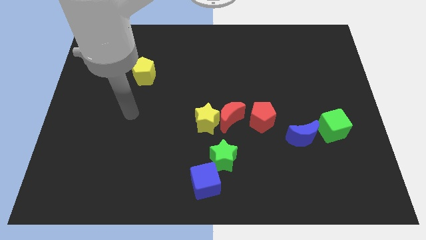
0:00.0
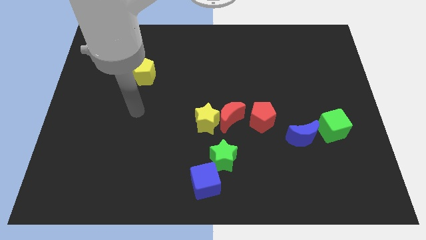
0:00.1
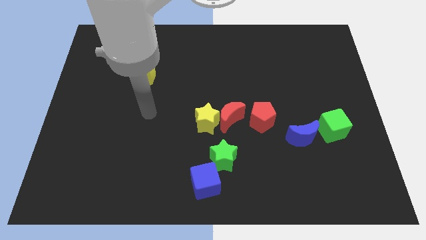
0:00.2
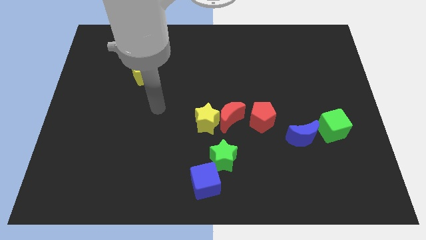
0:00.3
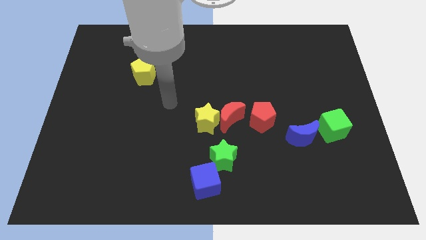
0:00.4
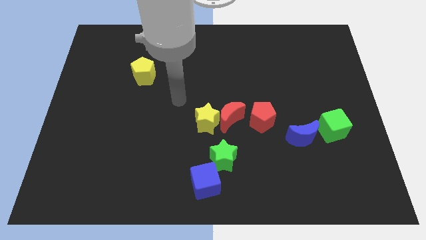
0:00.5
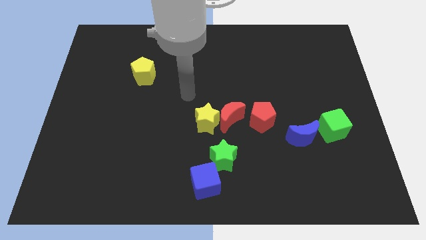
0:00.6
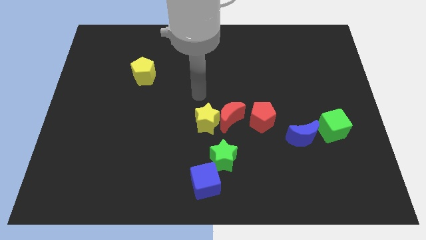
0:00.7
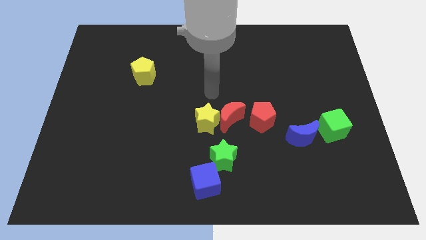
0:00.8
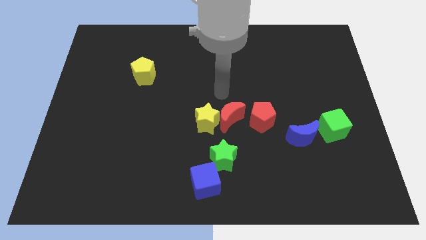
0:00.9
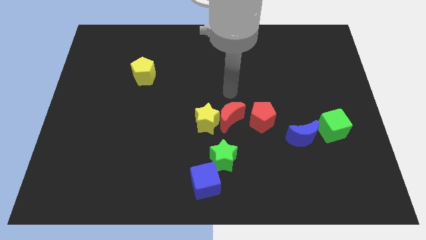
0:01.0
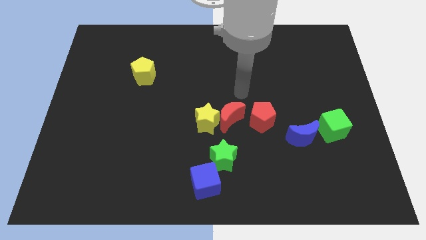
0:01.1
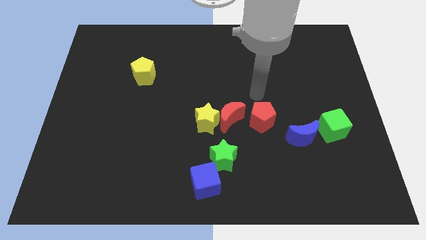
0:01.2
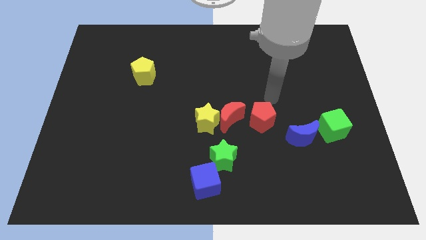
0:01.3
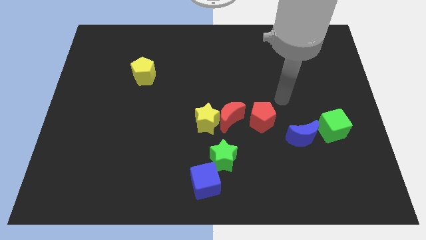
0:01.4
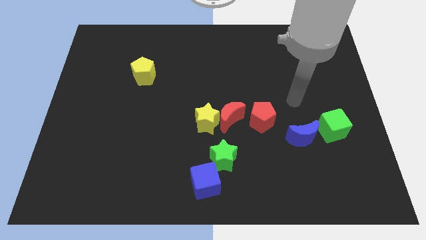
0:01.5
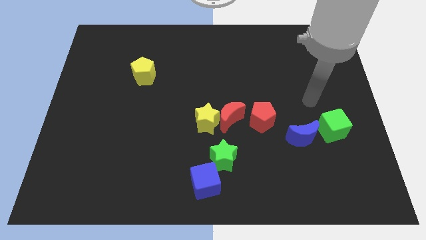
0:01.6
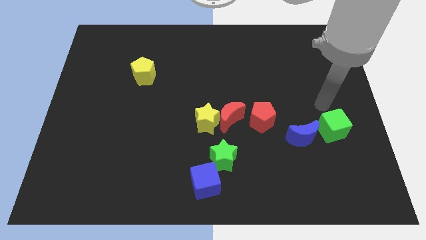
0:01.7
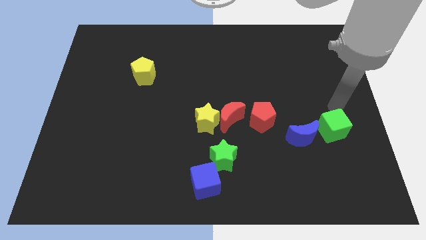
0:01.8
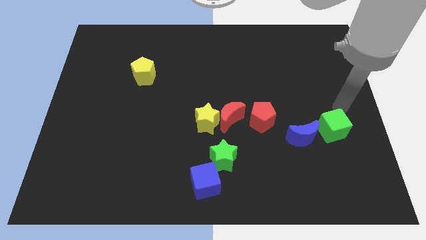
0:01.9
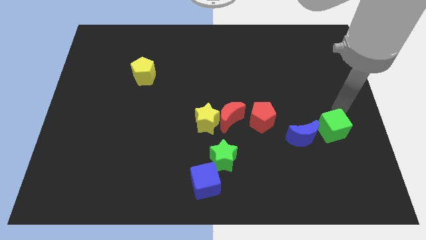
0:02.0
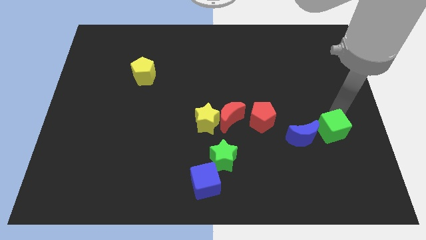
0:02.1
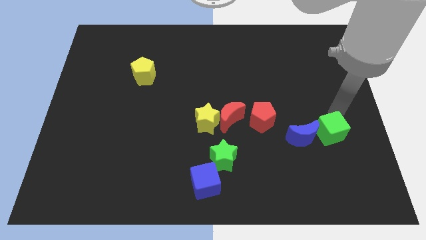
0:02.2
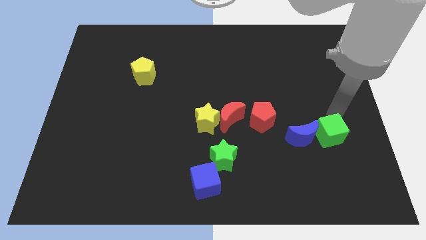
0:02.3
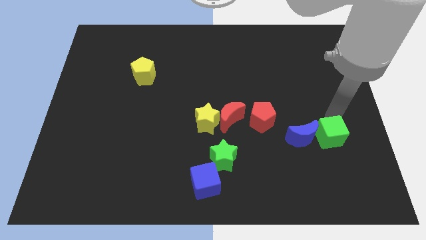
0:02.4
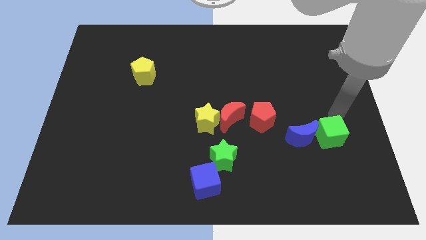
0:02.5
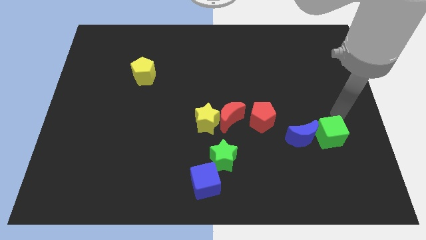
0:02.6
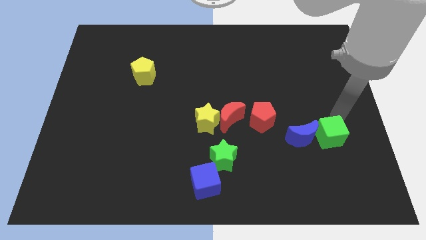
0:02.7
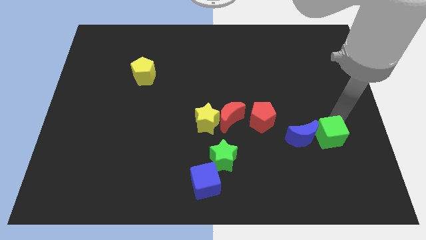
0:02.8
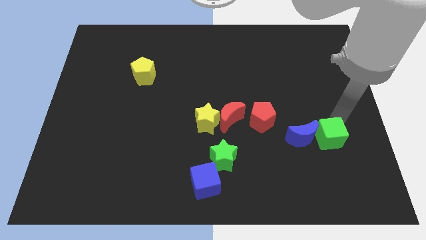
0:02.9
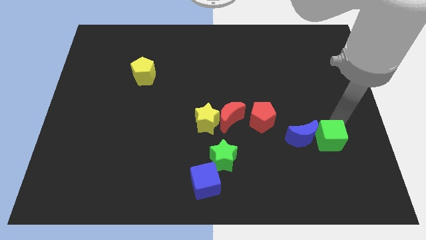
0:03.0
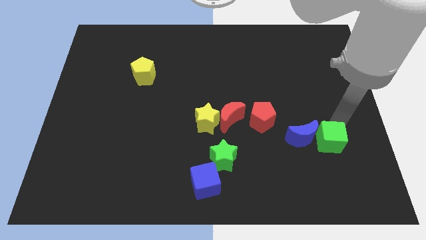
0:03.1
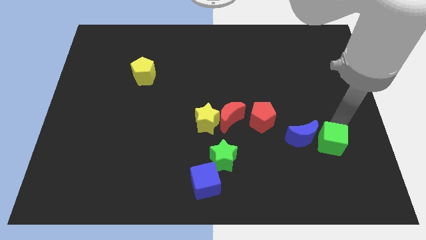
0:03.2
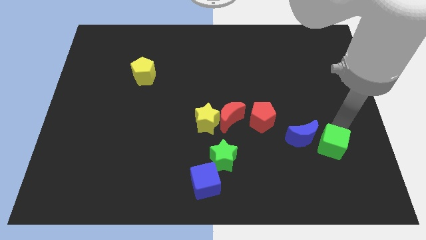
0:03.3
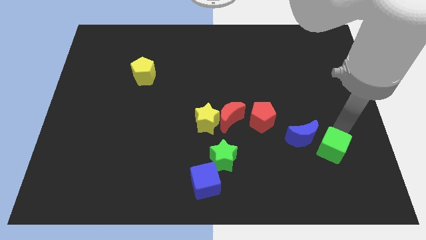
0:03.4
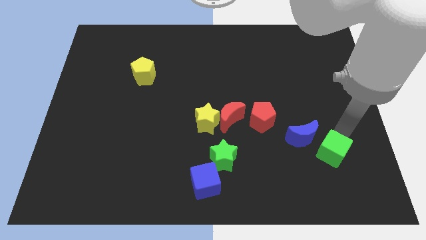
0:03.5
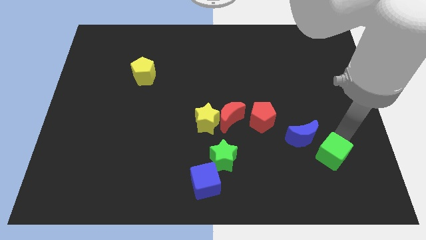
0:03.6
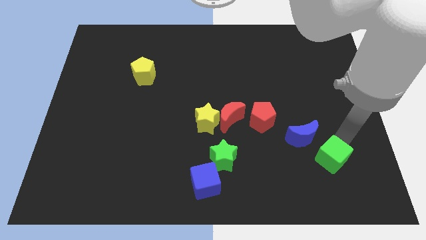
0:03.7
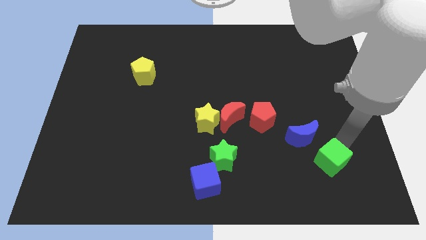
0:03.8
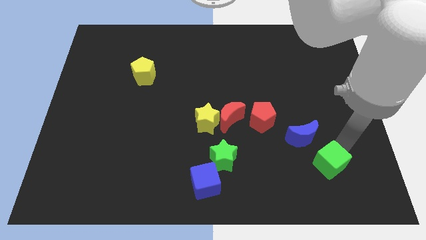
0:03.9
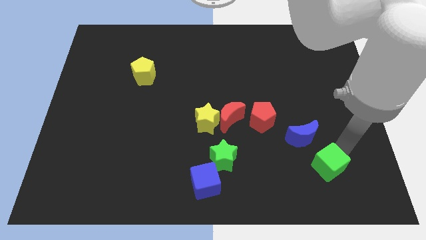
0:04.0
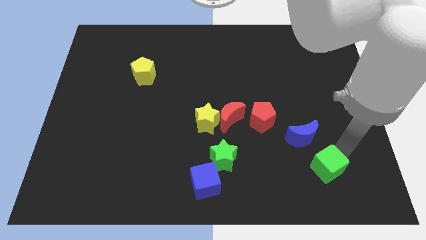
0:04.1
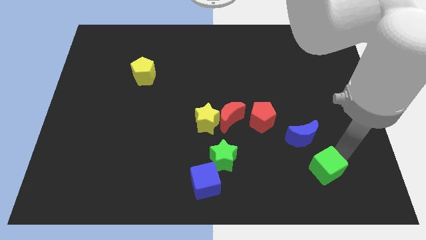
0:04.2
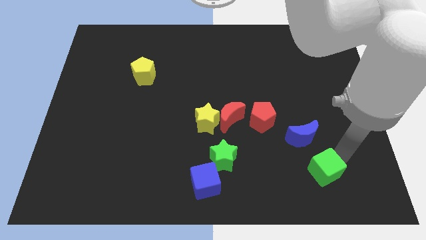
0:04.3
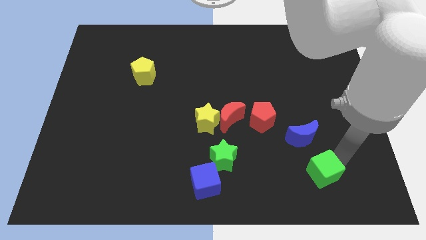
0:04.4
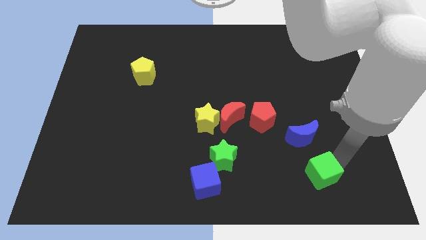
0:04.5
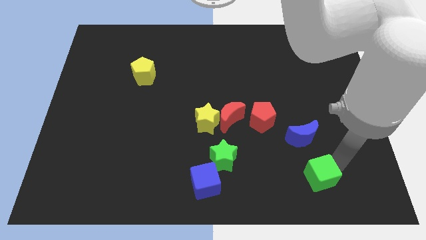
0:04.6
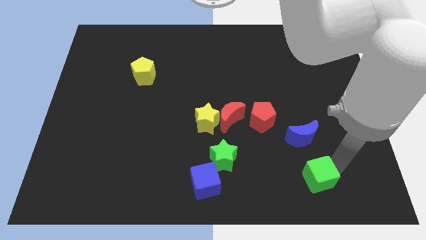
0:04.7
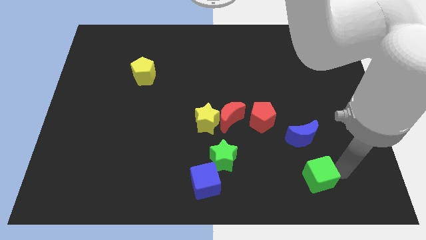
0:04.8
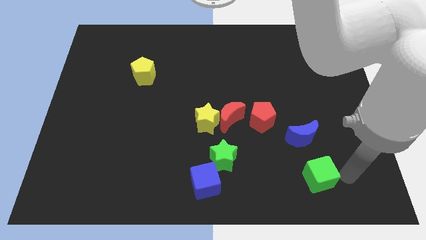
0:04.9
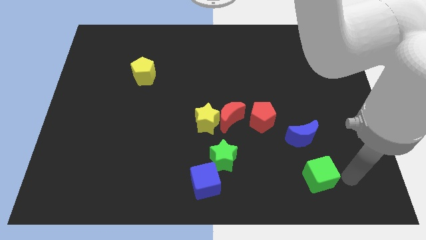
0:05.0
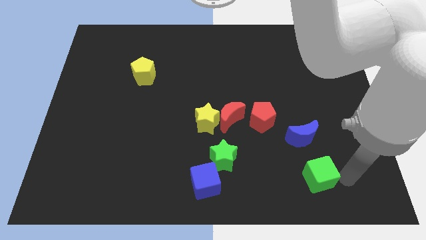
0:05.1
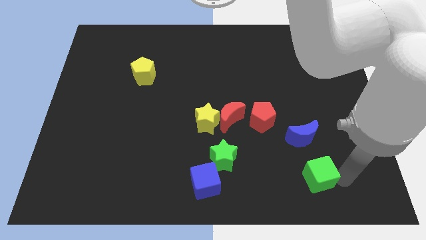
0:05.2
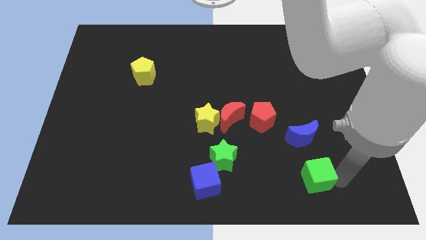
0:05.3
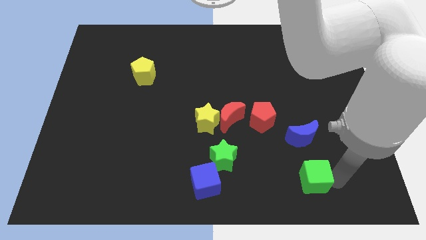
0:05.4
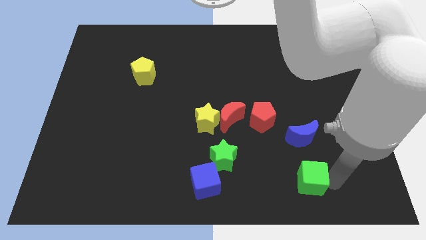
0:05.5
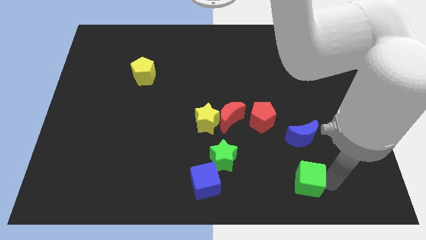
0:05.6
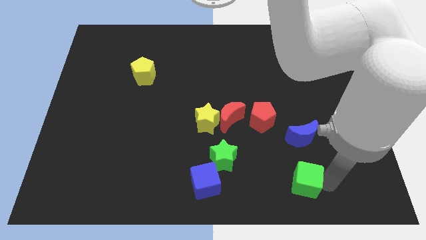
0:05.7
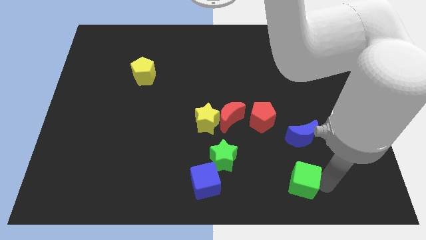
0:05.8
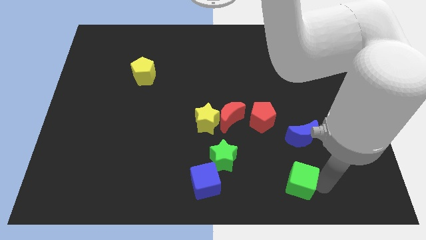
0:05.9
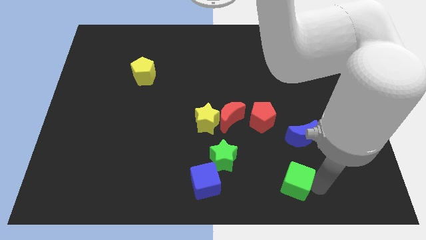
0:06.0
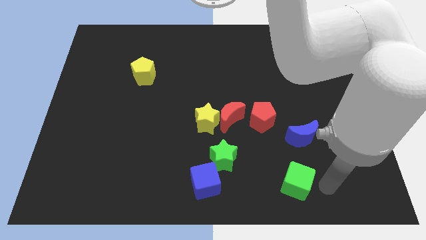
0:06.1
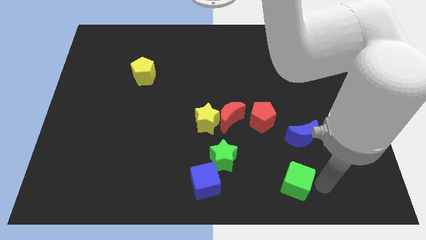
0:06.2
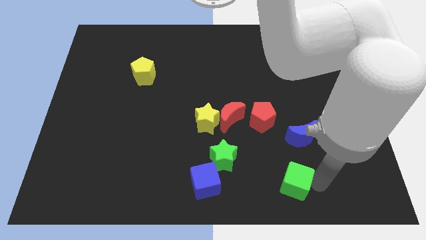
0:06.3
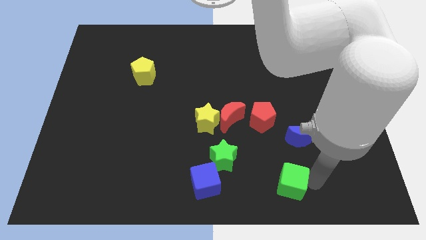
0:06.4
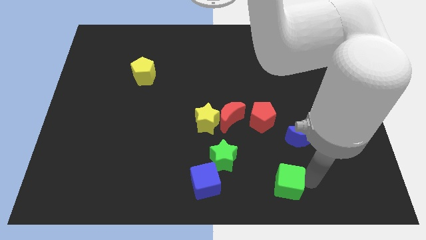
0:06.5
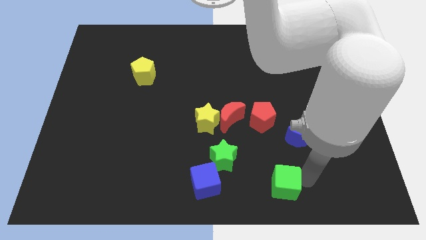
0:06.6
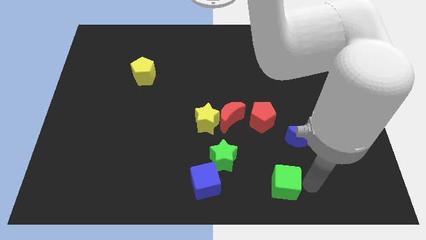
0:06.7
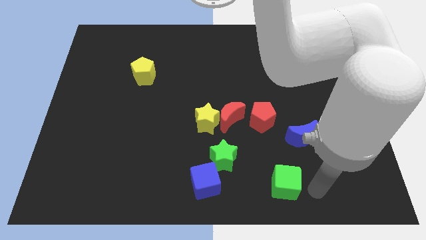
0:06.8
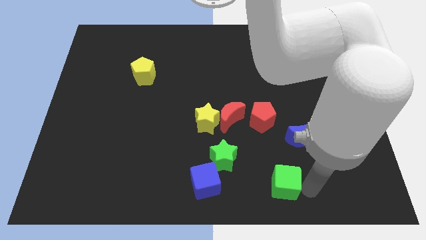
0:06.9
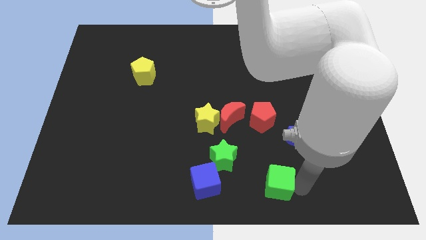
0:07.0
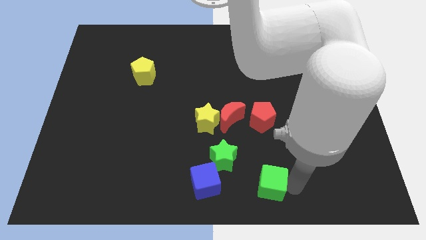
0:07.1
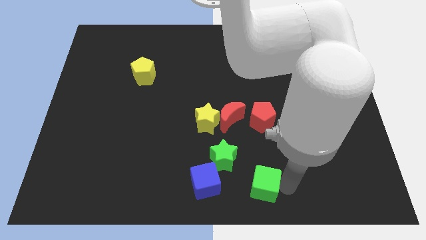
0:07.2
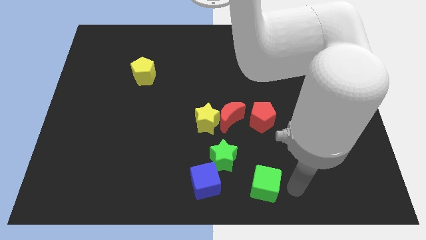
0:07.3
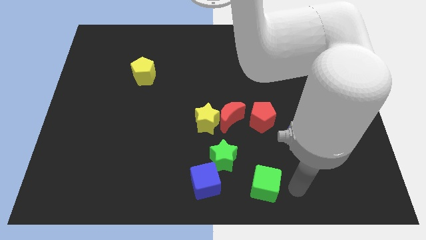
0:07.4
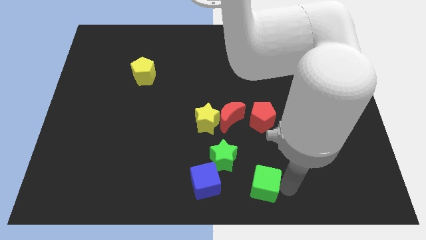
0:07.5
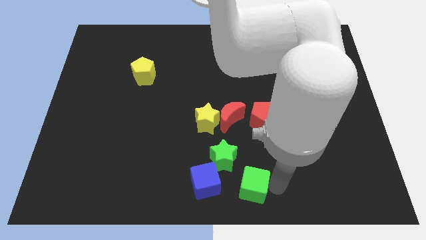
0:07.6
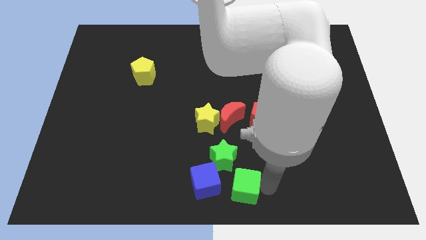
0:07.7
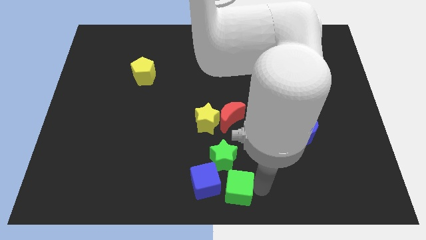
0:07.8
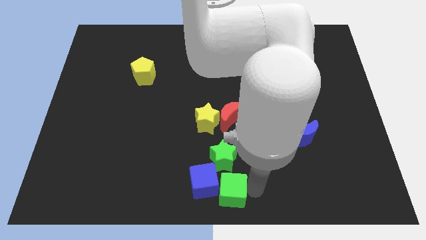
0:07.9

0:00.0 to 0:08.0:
push the green cube to the blue cube
